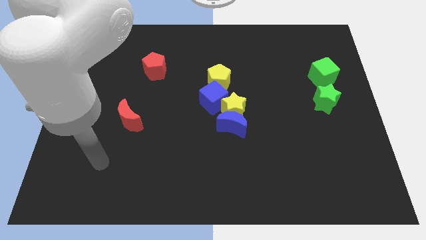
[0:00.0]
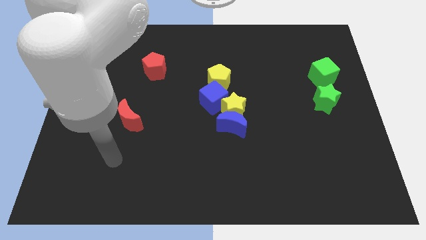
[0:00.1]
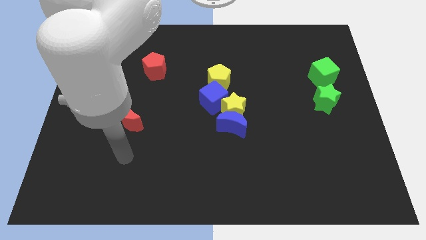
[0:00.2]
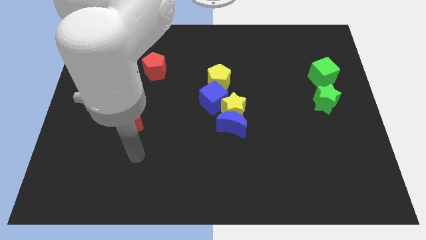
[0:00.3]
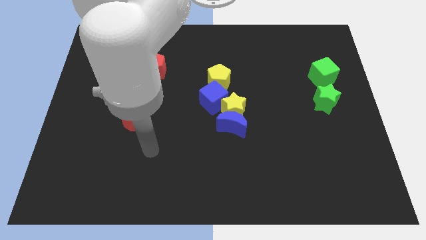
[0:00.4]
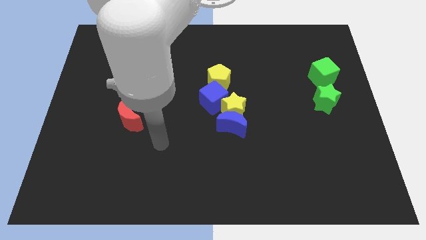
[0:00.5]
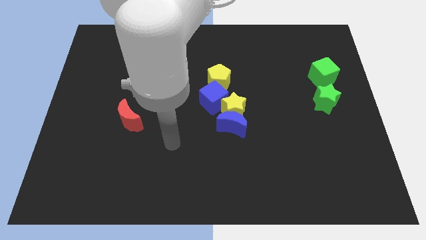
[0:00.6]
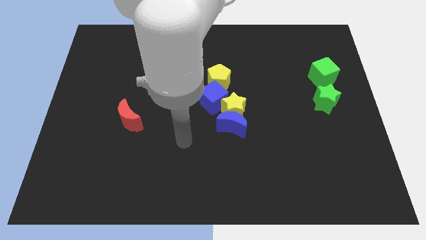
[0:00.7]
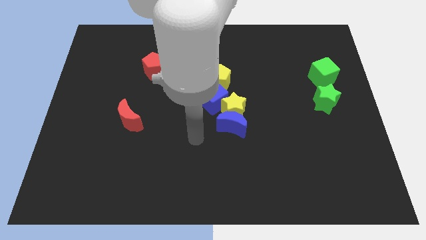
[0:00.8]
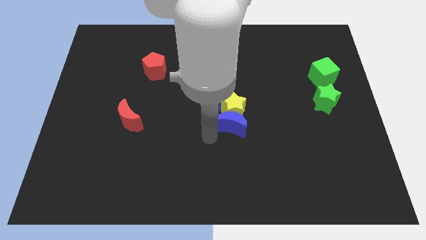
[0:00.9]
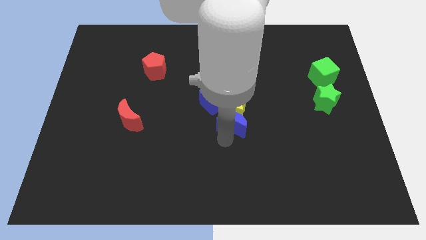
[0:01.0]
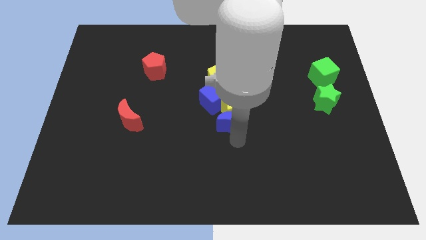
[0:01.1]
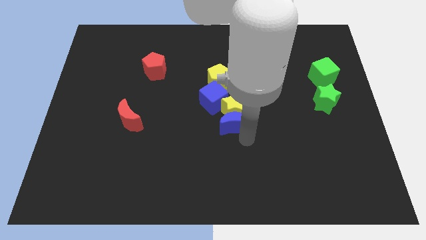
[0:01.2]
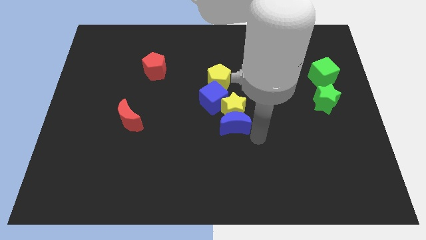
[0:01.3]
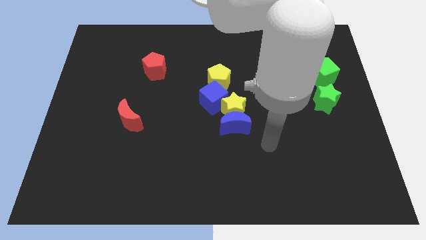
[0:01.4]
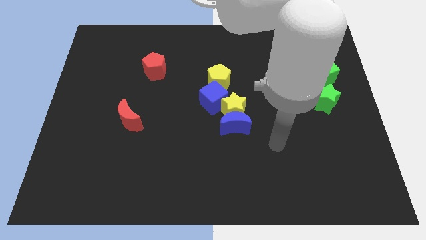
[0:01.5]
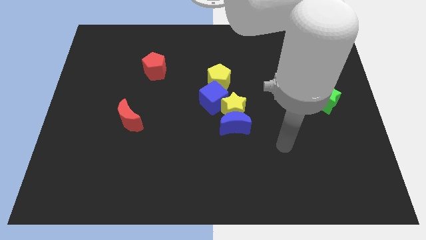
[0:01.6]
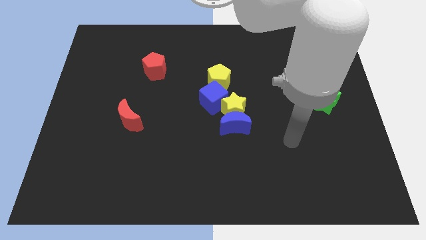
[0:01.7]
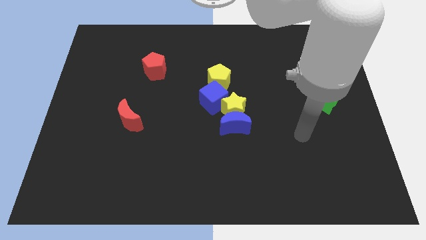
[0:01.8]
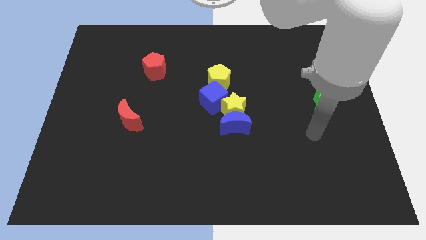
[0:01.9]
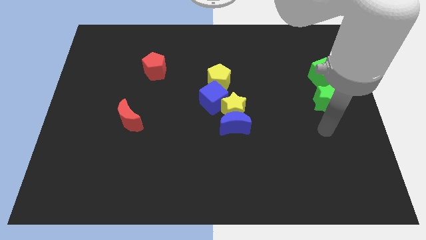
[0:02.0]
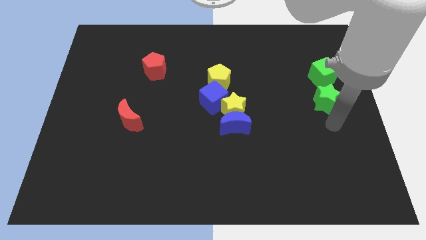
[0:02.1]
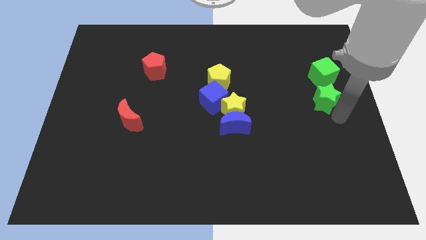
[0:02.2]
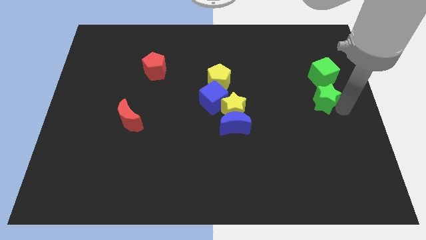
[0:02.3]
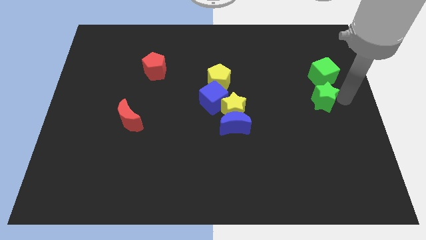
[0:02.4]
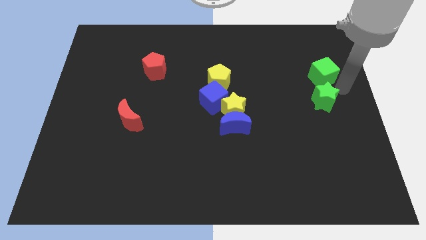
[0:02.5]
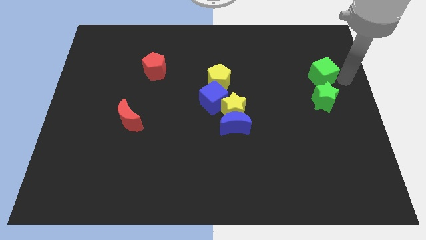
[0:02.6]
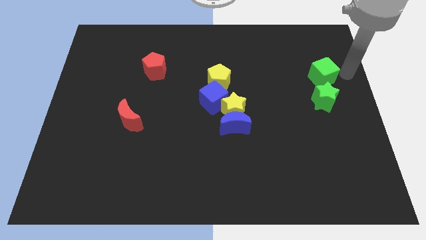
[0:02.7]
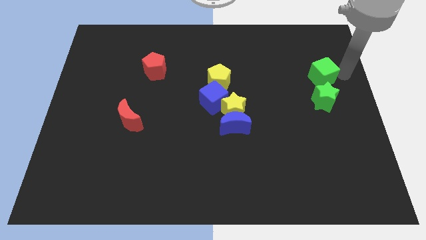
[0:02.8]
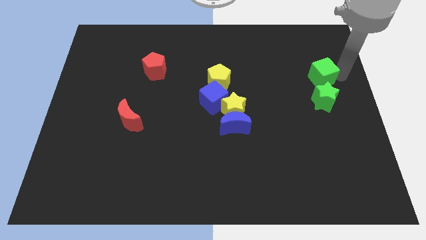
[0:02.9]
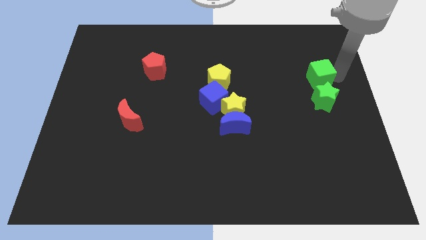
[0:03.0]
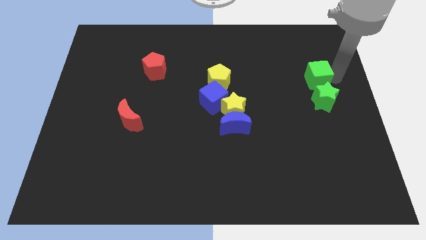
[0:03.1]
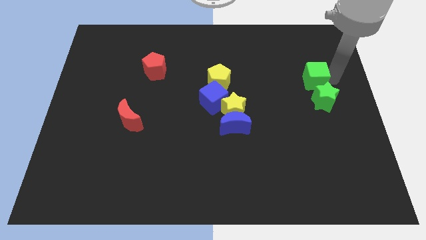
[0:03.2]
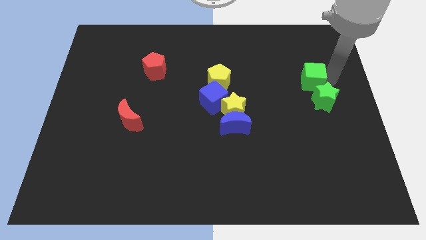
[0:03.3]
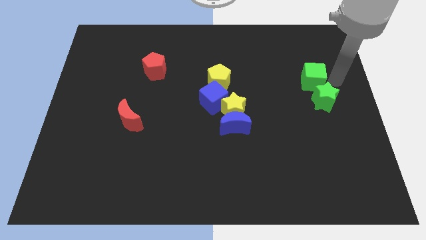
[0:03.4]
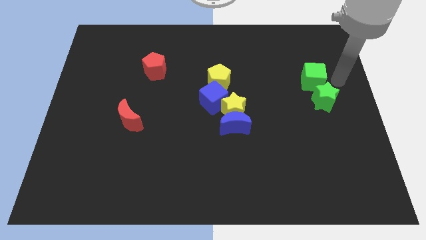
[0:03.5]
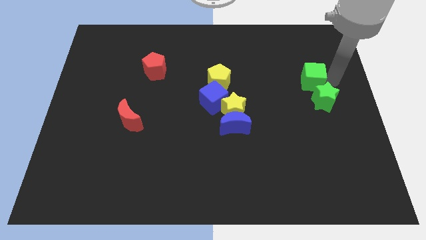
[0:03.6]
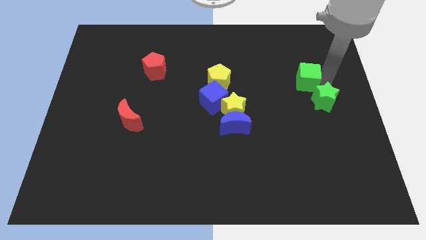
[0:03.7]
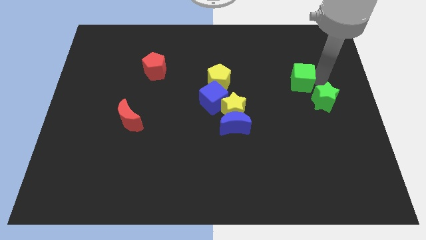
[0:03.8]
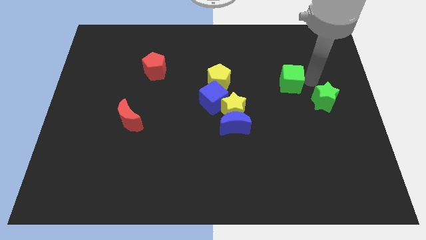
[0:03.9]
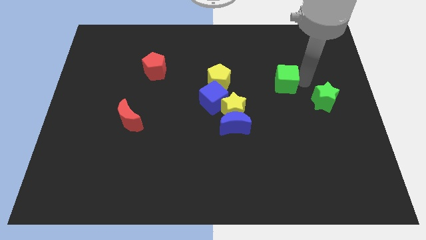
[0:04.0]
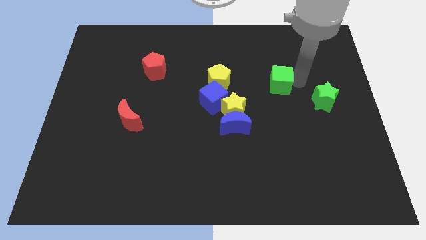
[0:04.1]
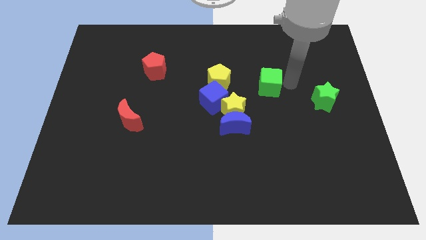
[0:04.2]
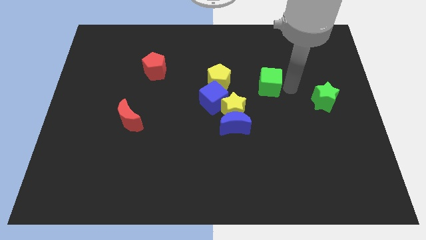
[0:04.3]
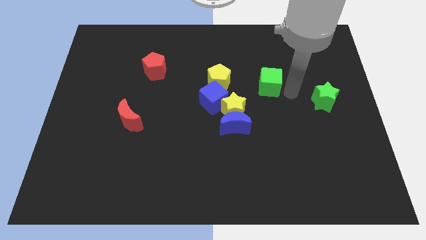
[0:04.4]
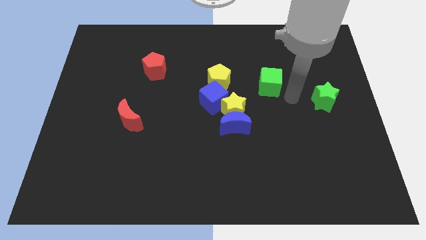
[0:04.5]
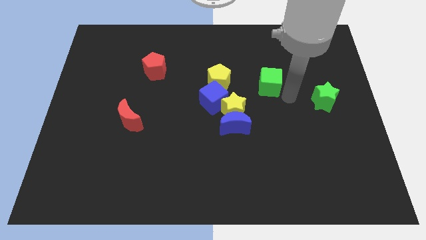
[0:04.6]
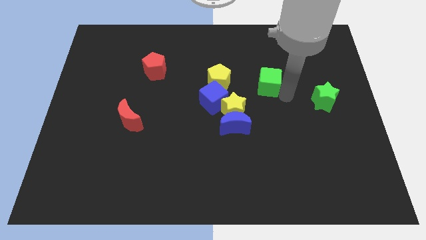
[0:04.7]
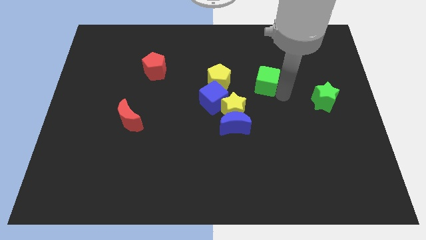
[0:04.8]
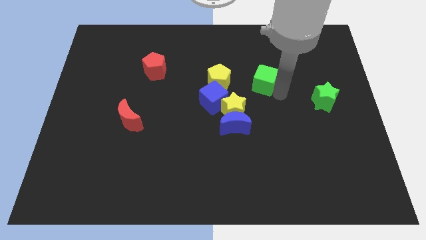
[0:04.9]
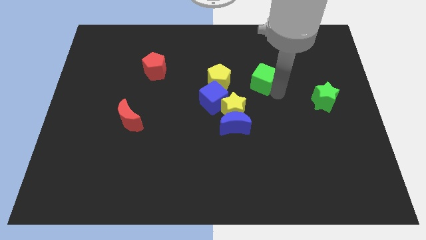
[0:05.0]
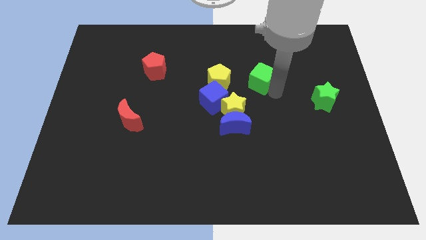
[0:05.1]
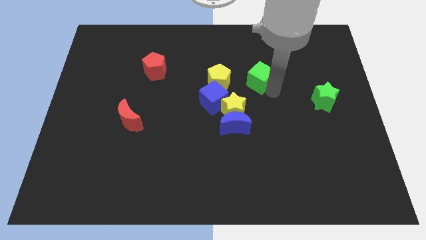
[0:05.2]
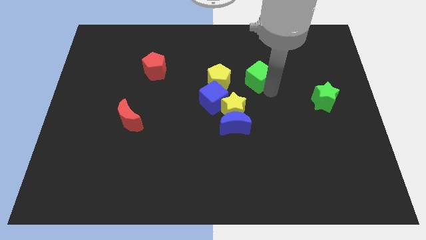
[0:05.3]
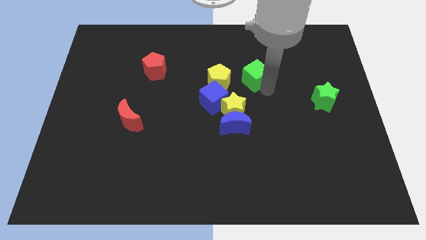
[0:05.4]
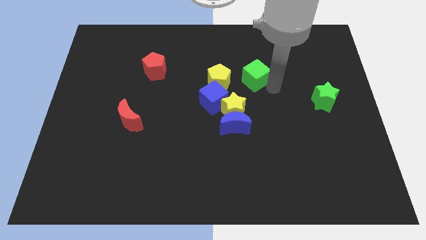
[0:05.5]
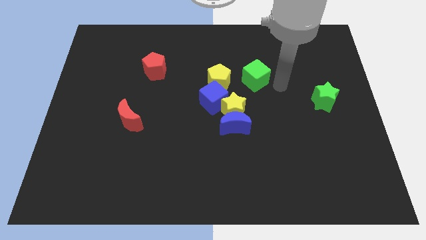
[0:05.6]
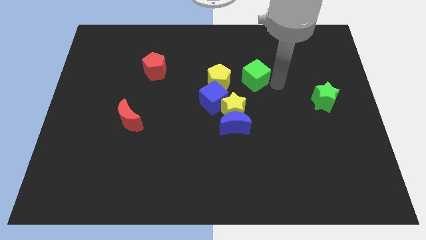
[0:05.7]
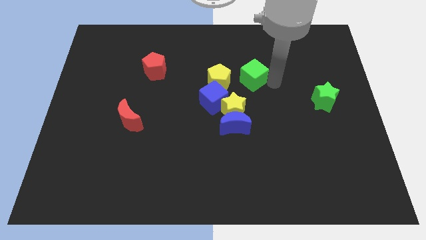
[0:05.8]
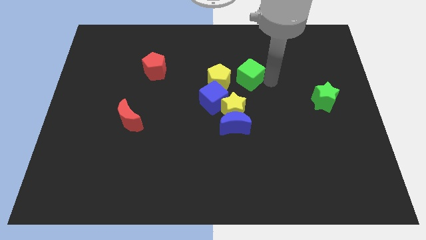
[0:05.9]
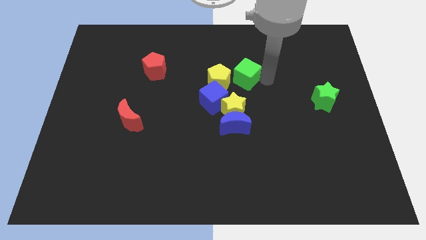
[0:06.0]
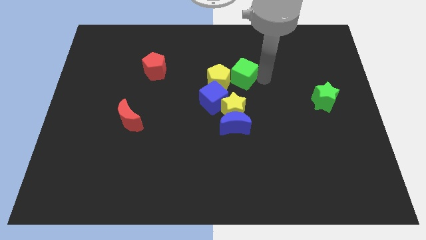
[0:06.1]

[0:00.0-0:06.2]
slide the green cube to the left

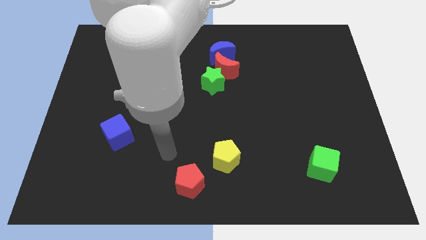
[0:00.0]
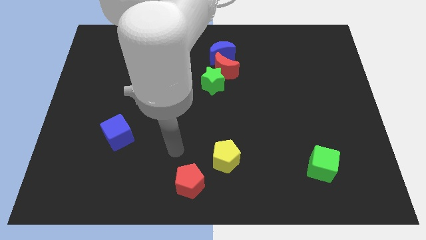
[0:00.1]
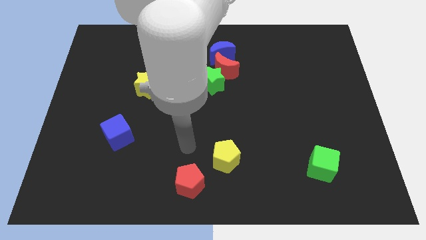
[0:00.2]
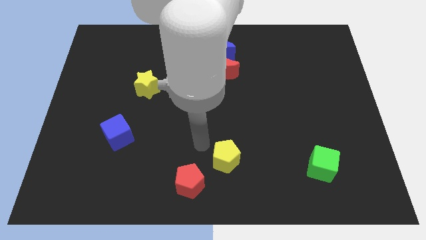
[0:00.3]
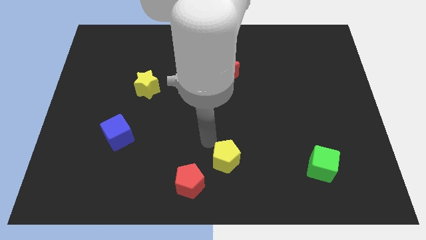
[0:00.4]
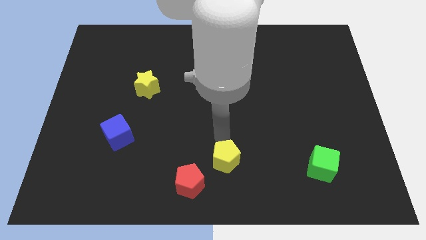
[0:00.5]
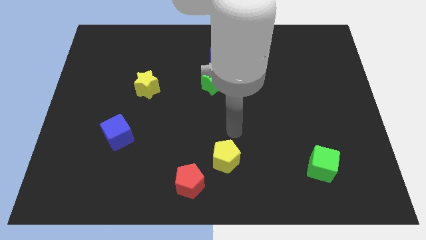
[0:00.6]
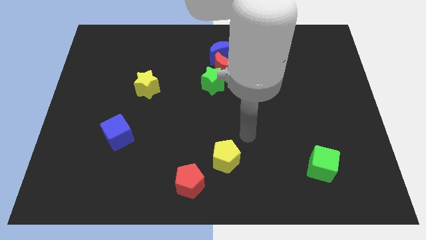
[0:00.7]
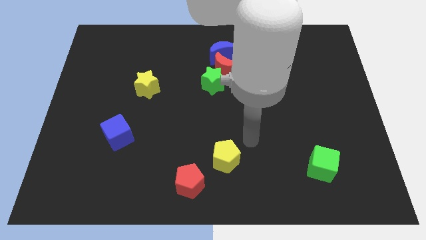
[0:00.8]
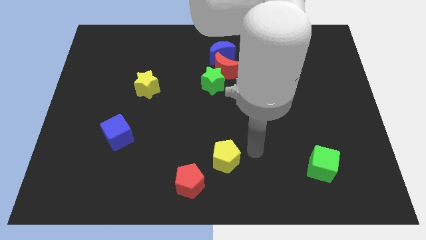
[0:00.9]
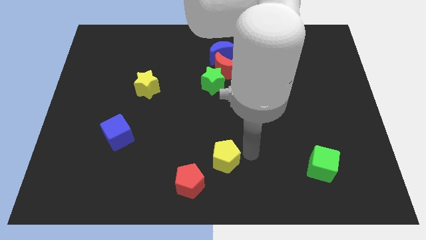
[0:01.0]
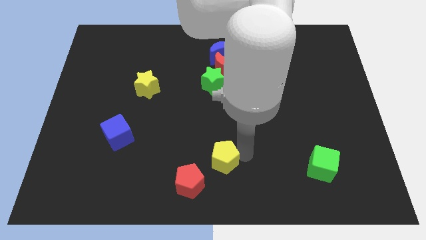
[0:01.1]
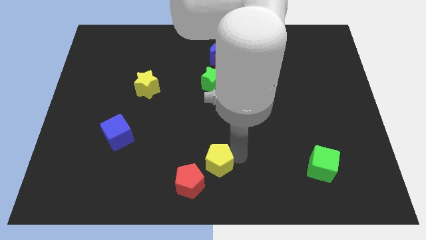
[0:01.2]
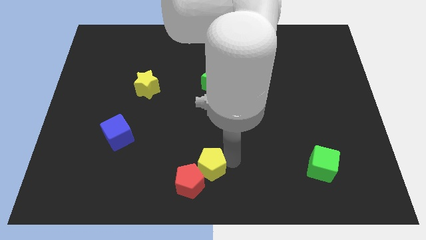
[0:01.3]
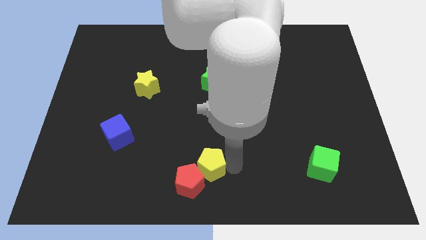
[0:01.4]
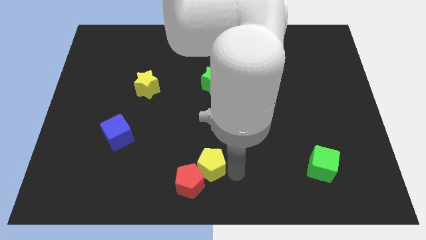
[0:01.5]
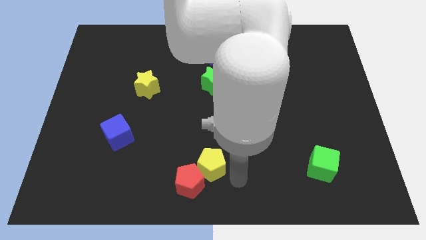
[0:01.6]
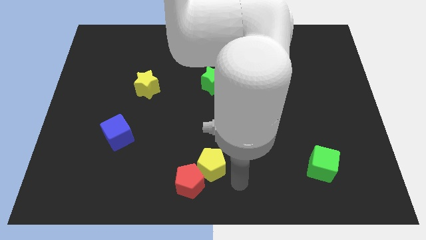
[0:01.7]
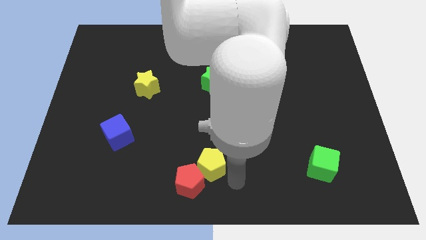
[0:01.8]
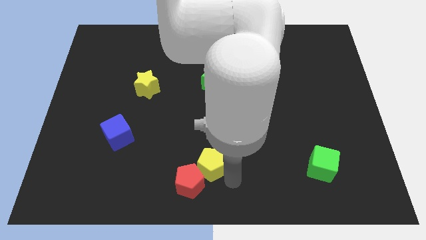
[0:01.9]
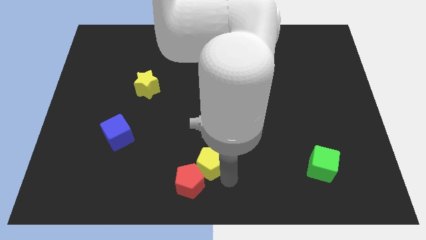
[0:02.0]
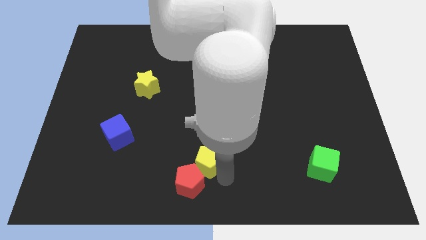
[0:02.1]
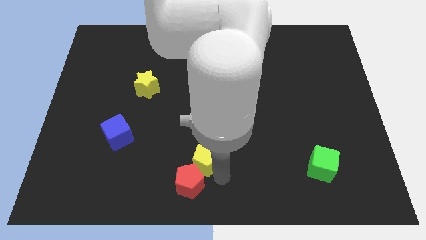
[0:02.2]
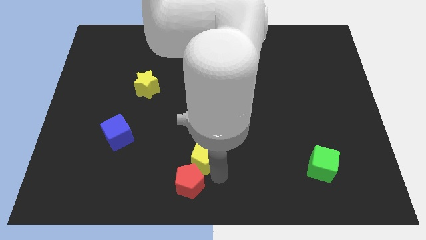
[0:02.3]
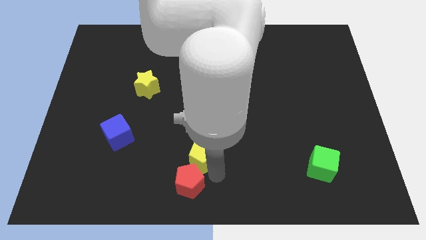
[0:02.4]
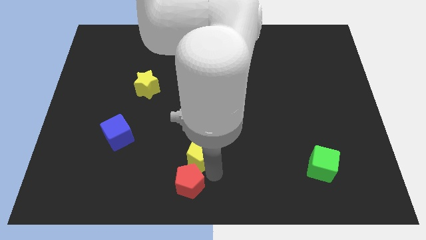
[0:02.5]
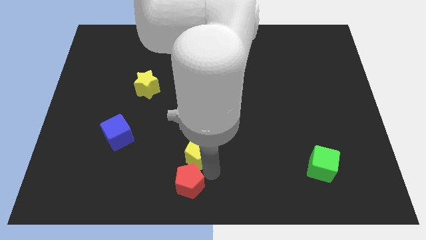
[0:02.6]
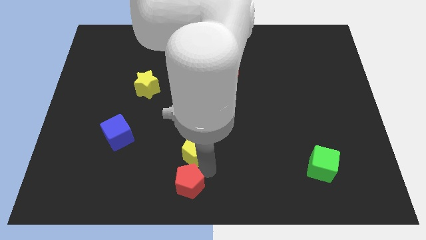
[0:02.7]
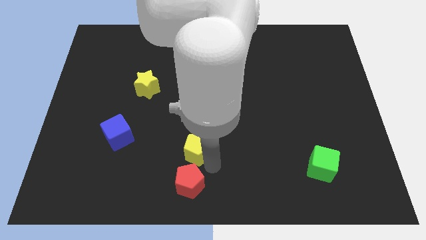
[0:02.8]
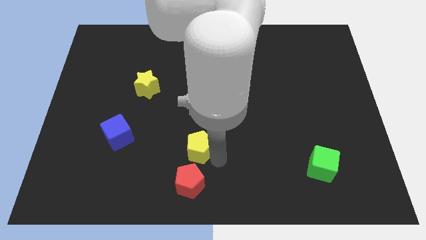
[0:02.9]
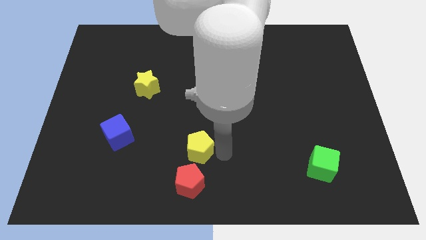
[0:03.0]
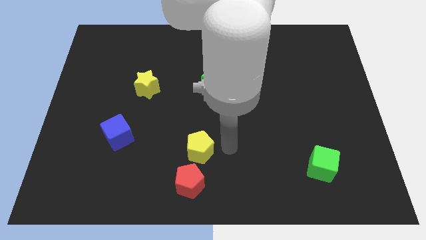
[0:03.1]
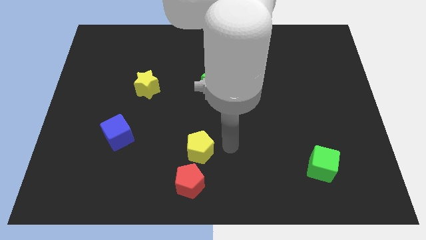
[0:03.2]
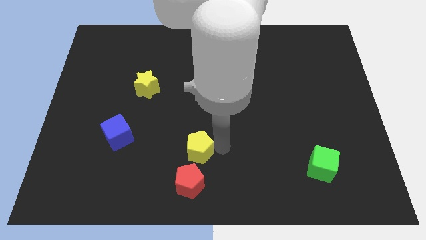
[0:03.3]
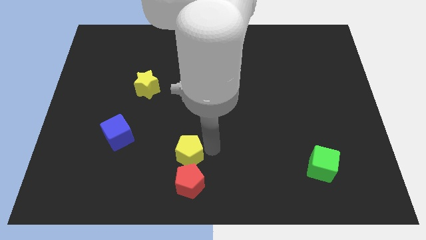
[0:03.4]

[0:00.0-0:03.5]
push the yellow pentagon a little bit left
